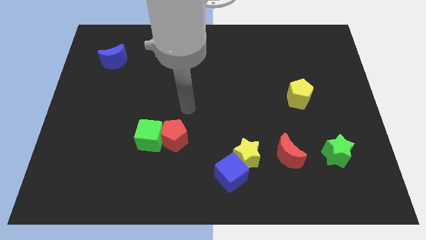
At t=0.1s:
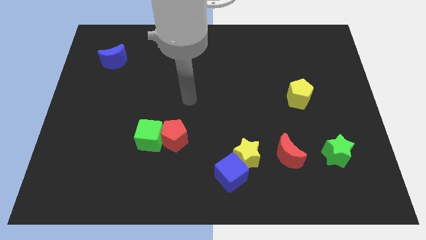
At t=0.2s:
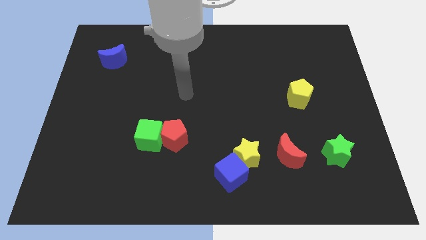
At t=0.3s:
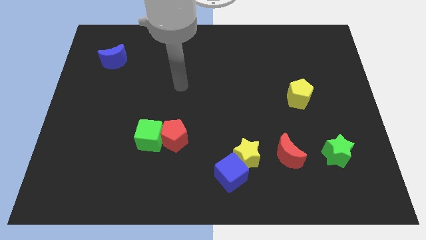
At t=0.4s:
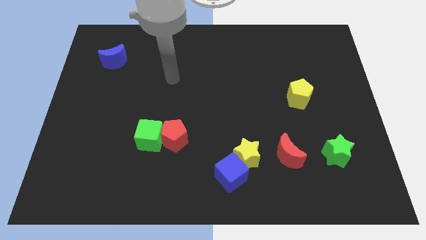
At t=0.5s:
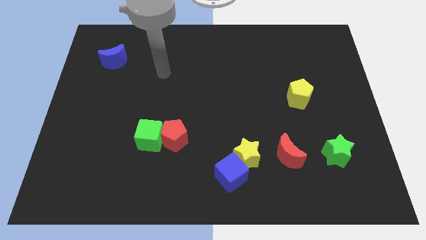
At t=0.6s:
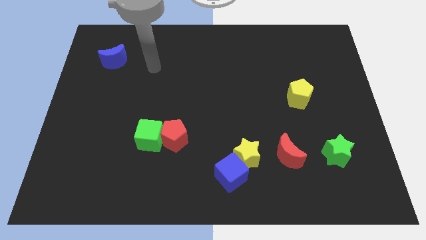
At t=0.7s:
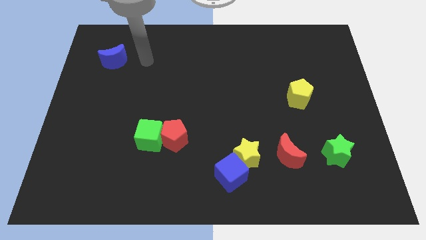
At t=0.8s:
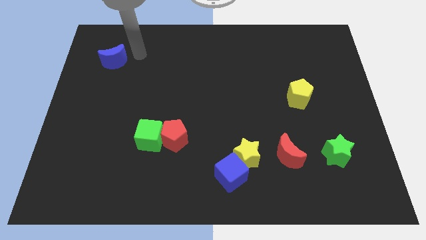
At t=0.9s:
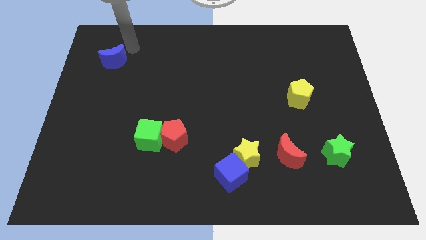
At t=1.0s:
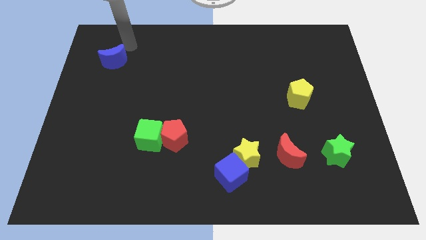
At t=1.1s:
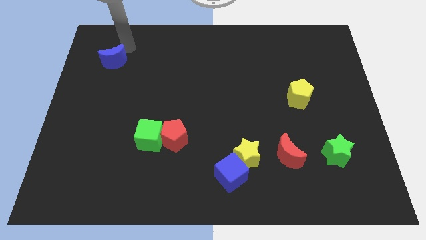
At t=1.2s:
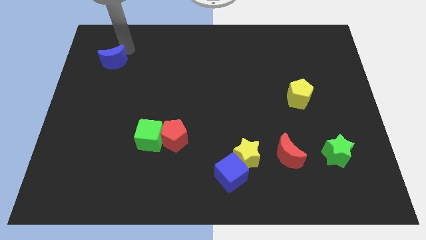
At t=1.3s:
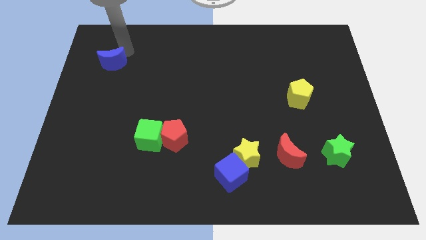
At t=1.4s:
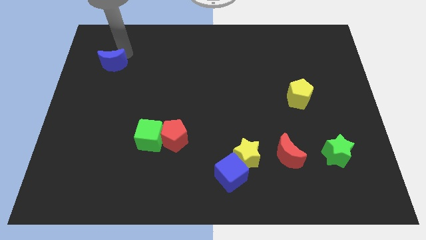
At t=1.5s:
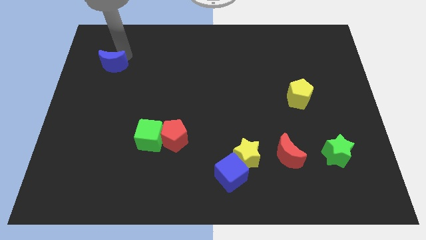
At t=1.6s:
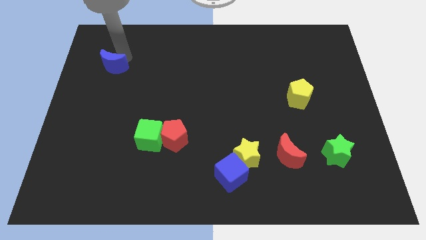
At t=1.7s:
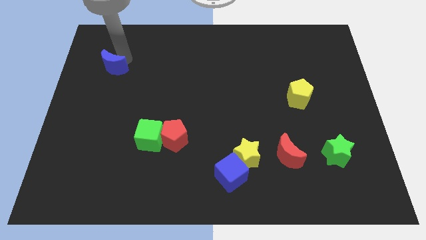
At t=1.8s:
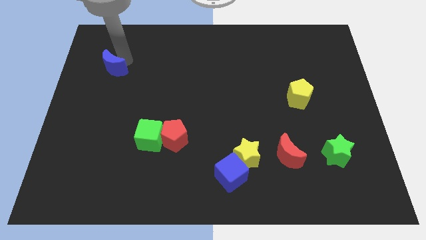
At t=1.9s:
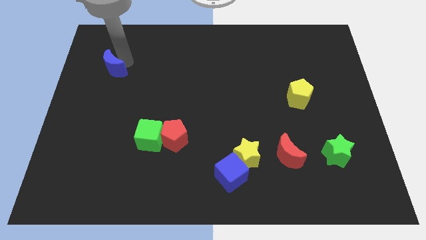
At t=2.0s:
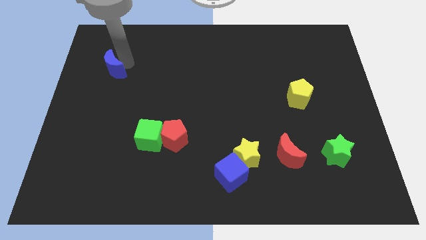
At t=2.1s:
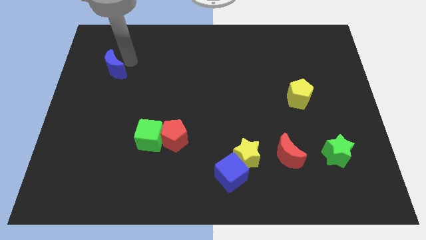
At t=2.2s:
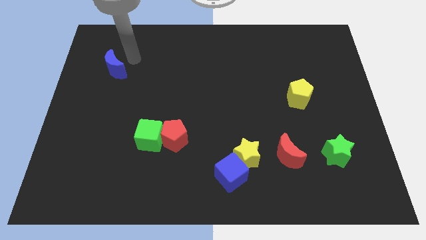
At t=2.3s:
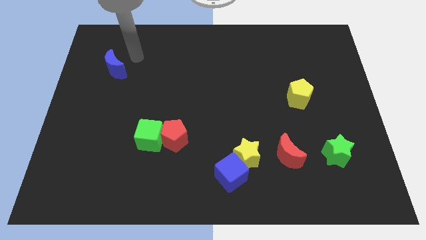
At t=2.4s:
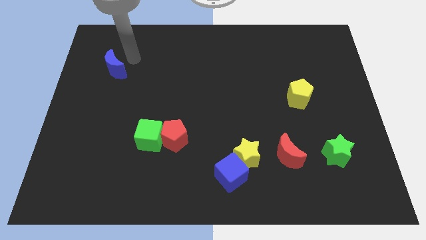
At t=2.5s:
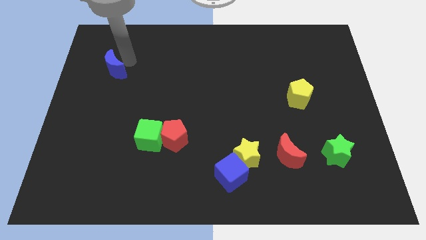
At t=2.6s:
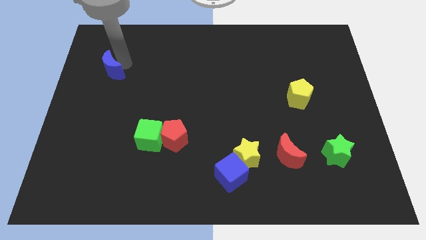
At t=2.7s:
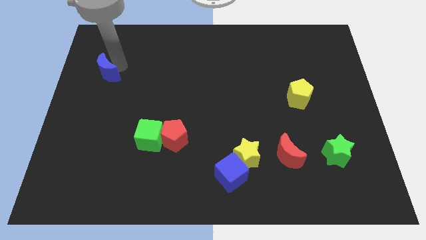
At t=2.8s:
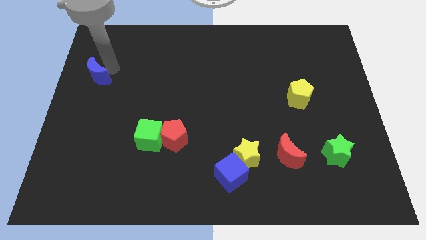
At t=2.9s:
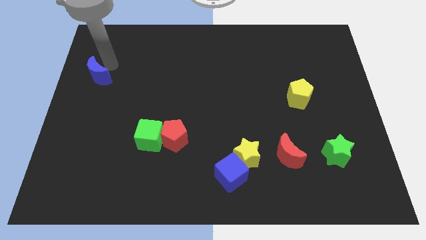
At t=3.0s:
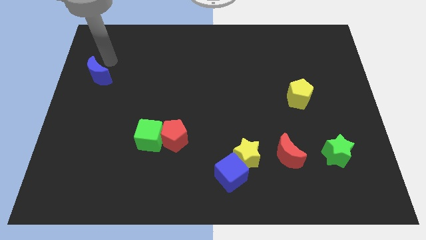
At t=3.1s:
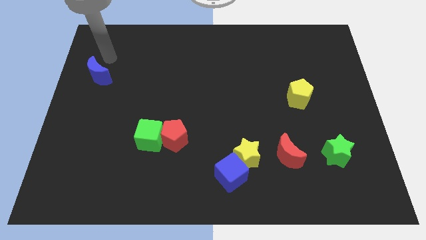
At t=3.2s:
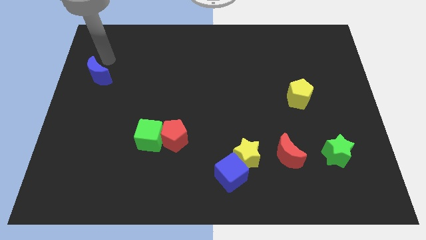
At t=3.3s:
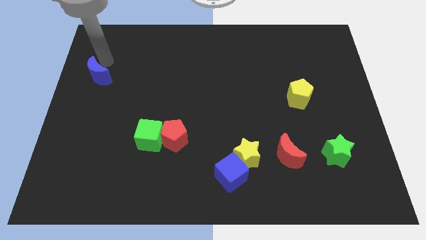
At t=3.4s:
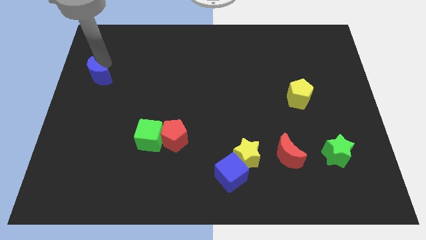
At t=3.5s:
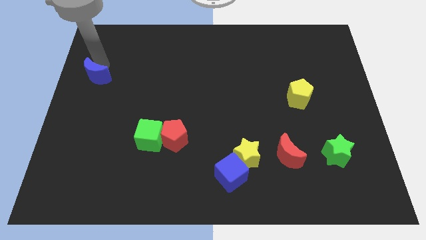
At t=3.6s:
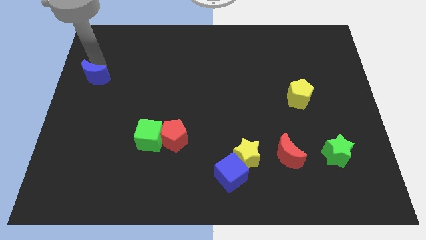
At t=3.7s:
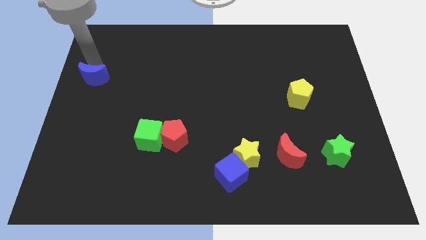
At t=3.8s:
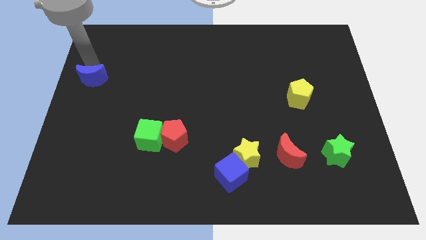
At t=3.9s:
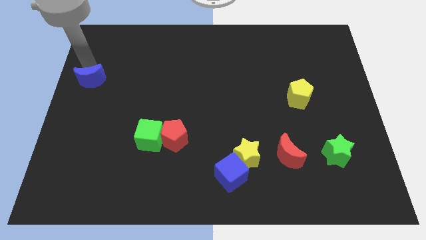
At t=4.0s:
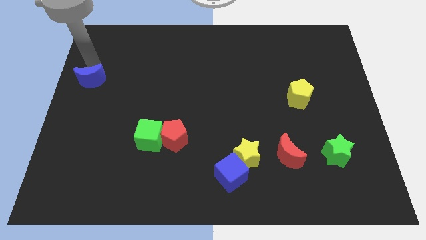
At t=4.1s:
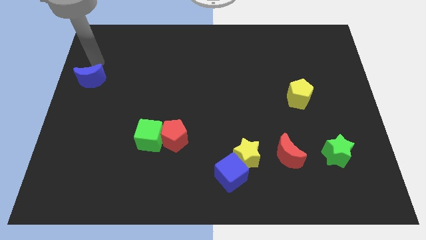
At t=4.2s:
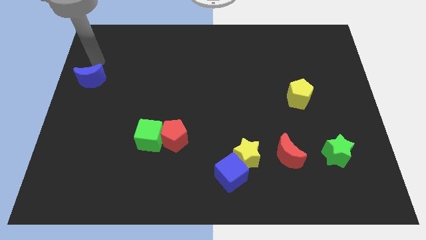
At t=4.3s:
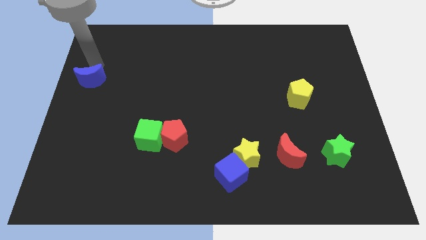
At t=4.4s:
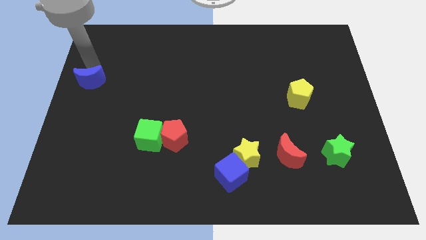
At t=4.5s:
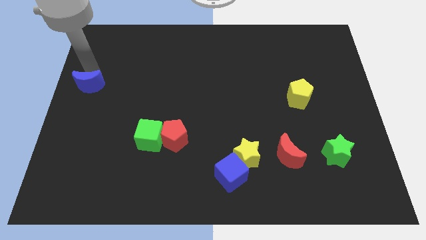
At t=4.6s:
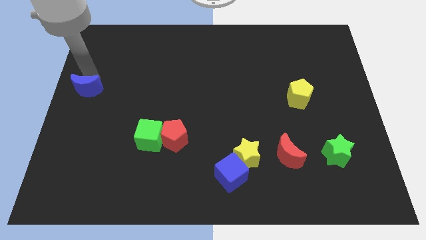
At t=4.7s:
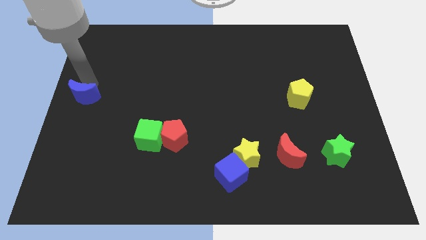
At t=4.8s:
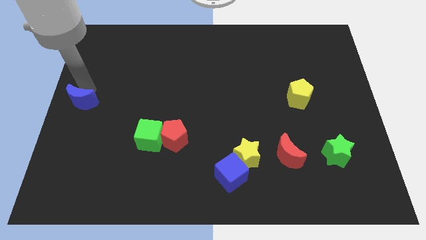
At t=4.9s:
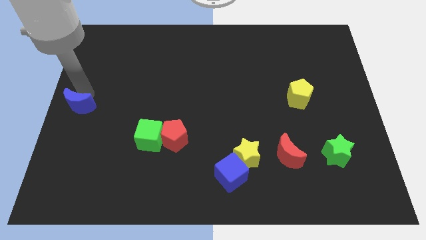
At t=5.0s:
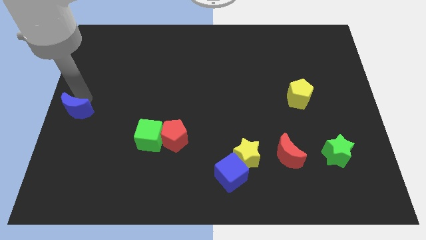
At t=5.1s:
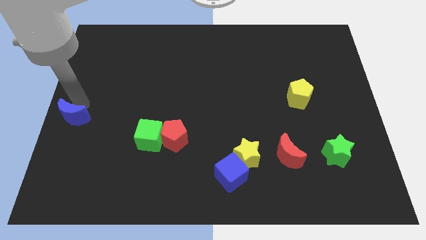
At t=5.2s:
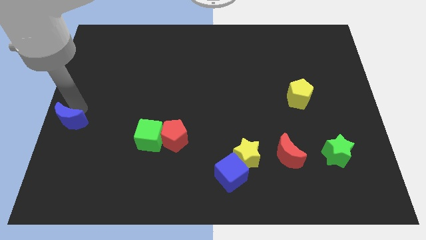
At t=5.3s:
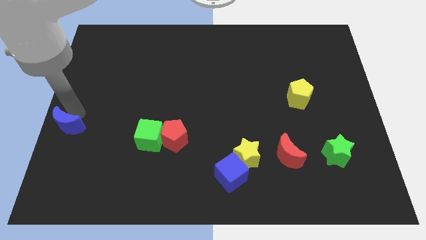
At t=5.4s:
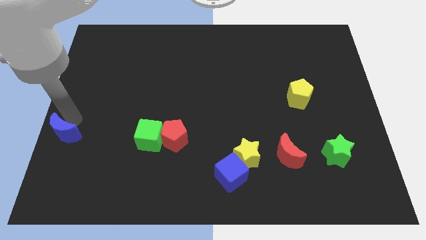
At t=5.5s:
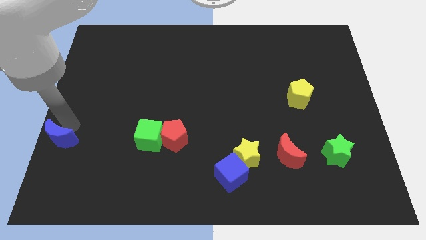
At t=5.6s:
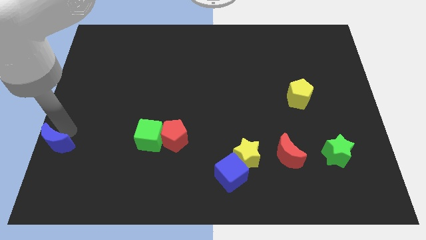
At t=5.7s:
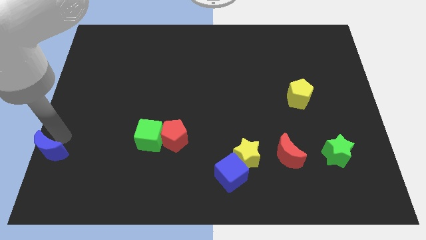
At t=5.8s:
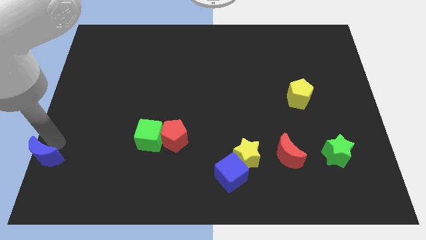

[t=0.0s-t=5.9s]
push the blue moon to the bottom left of the board
